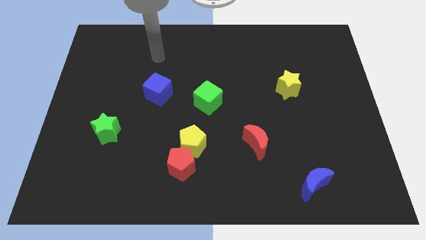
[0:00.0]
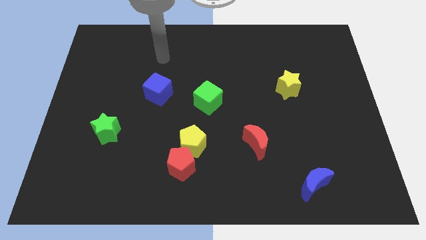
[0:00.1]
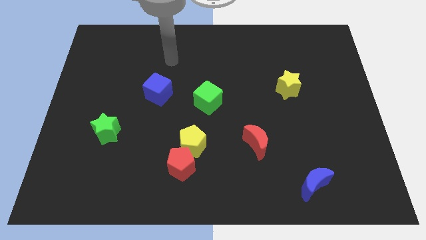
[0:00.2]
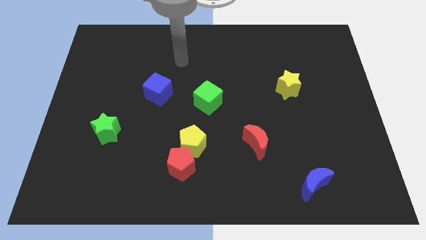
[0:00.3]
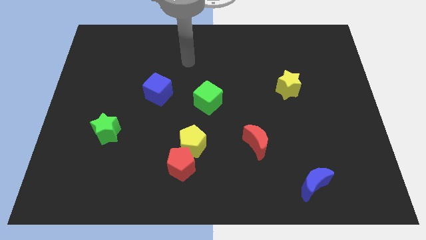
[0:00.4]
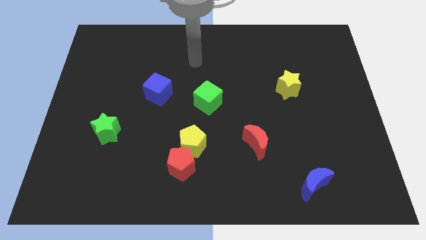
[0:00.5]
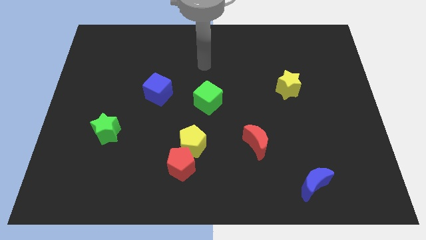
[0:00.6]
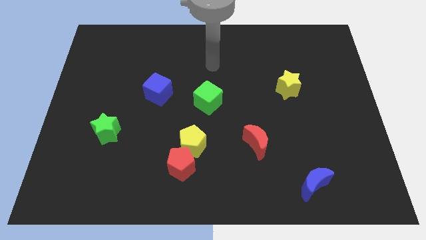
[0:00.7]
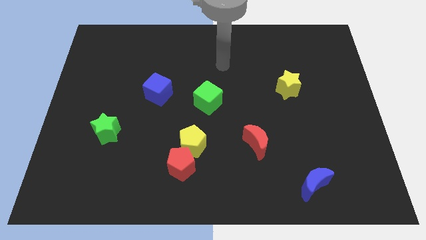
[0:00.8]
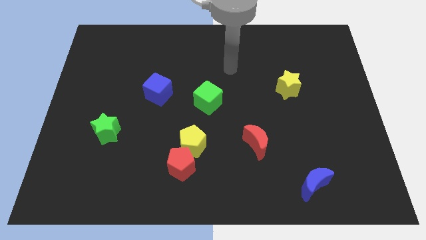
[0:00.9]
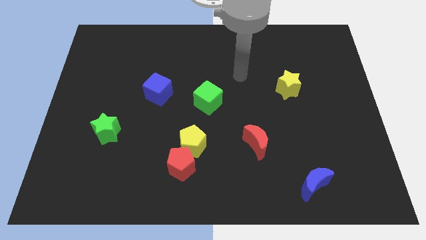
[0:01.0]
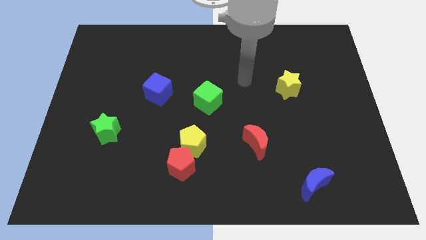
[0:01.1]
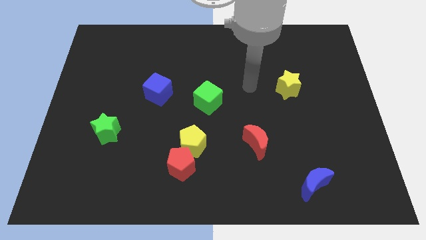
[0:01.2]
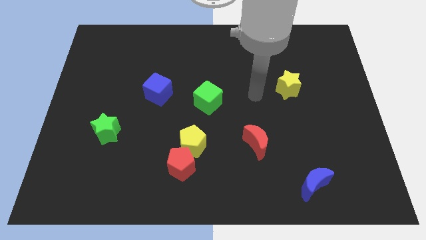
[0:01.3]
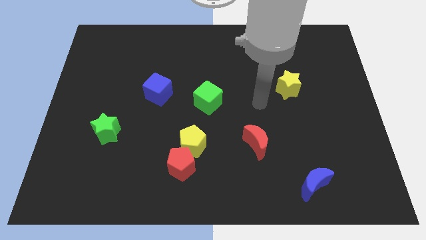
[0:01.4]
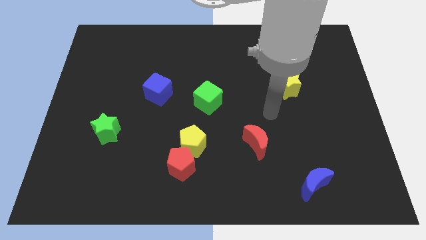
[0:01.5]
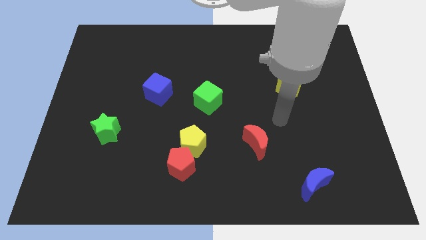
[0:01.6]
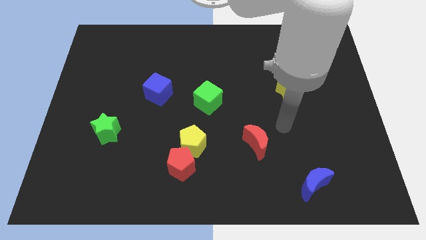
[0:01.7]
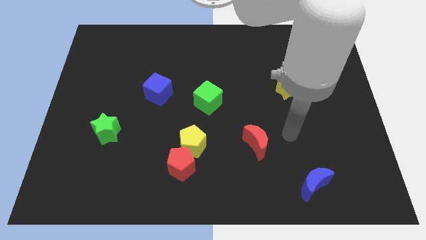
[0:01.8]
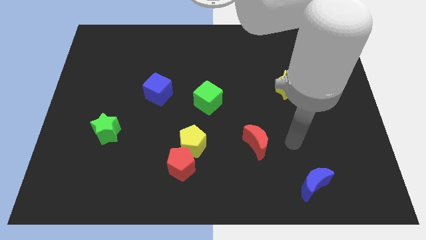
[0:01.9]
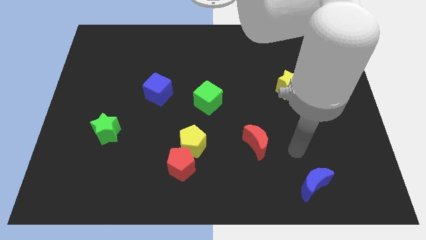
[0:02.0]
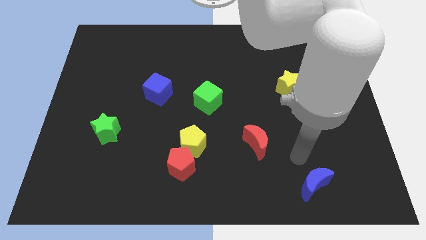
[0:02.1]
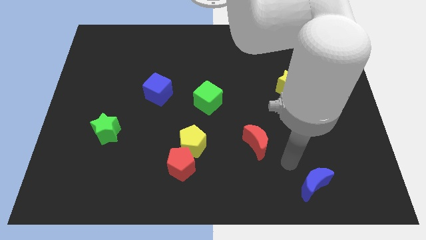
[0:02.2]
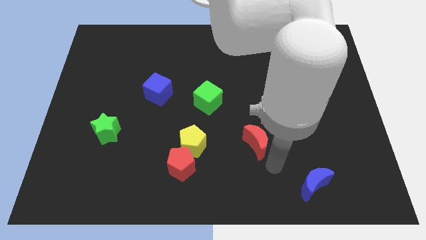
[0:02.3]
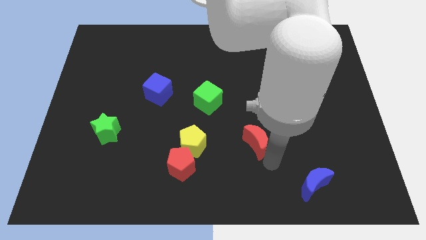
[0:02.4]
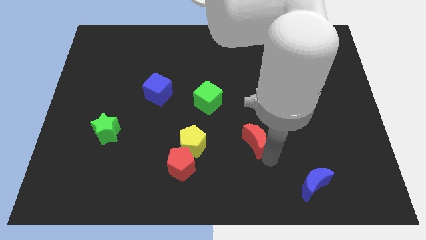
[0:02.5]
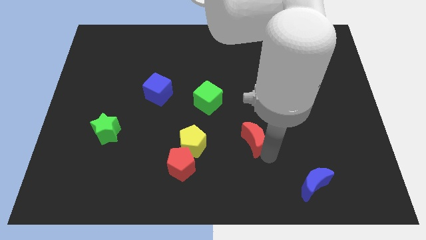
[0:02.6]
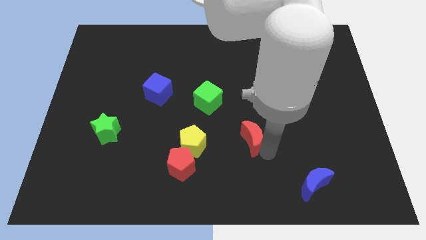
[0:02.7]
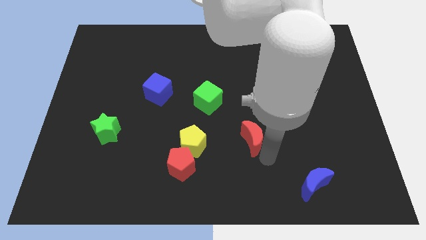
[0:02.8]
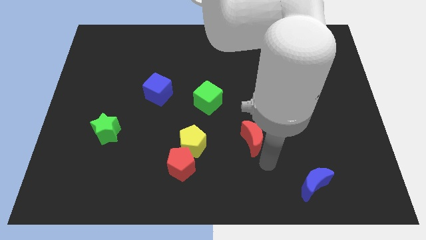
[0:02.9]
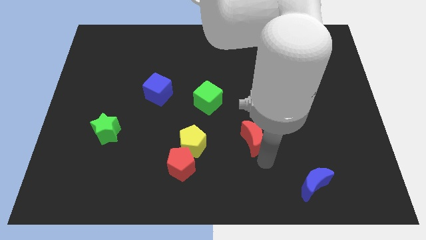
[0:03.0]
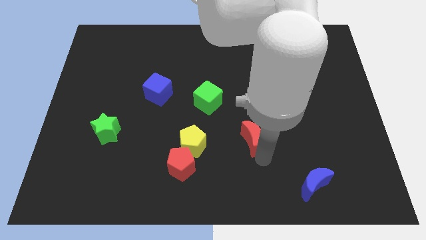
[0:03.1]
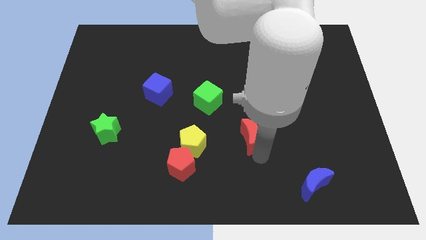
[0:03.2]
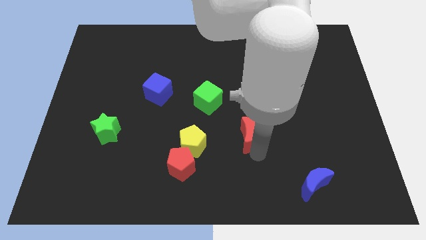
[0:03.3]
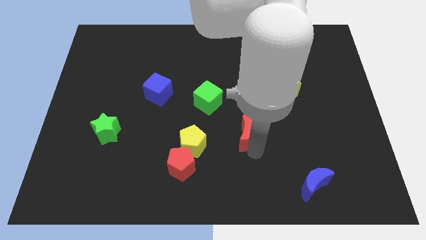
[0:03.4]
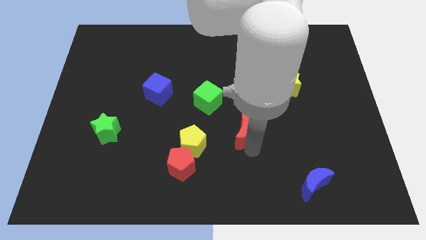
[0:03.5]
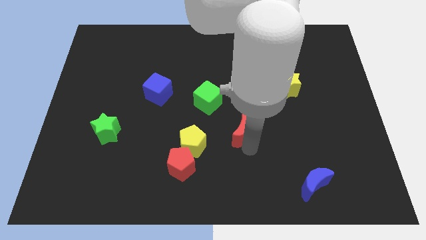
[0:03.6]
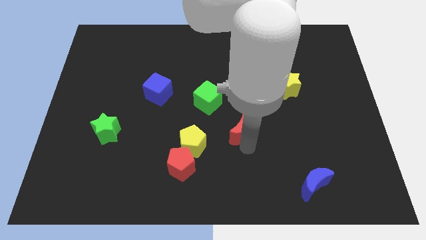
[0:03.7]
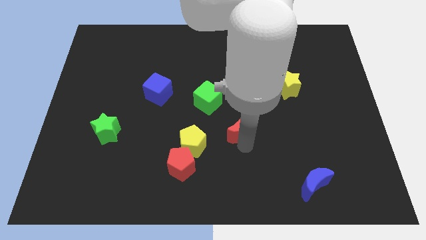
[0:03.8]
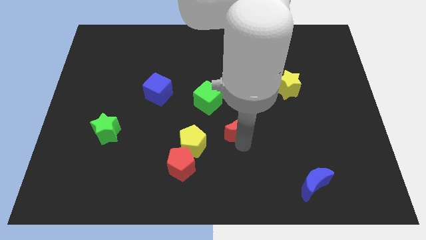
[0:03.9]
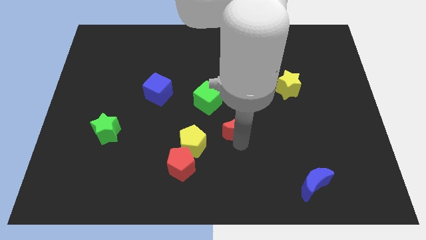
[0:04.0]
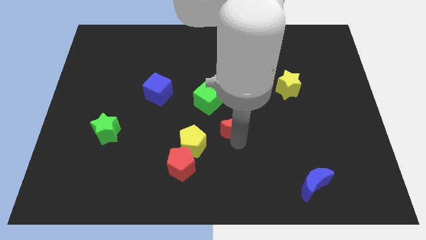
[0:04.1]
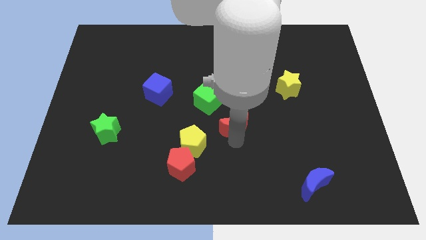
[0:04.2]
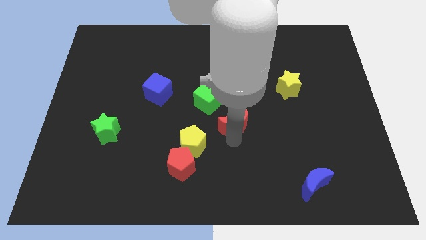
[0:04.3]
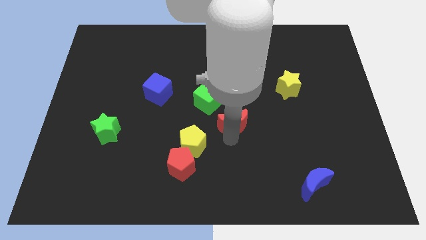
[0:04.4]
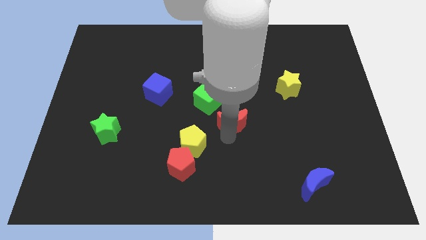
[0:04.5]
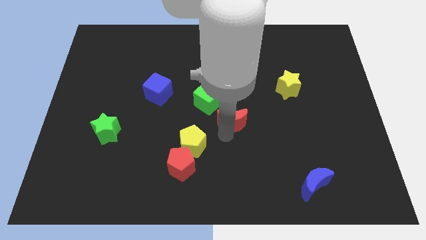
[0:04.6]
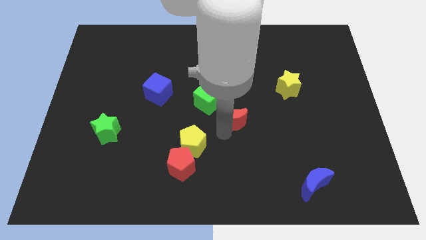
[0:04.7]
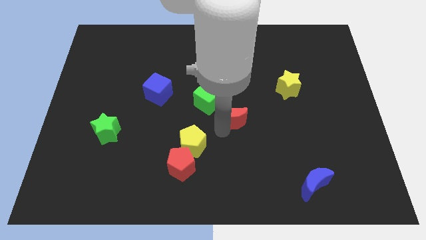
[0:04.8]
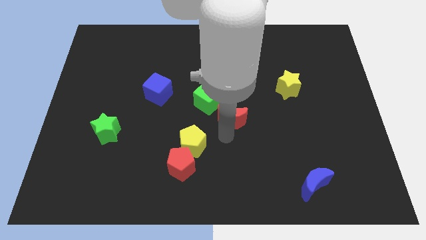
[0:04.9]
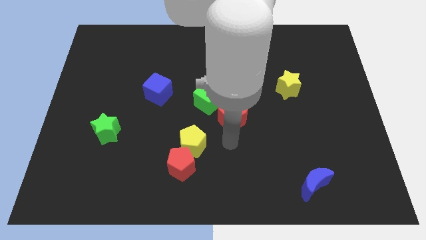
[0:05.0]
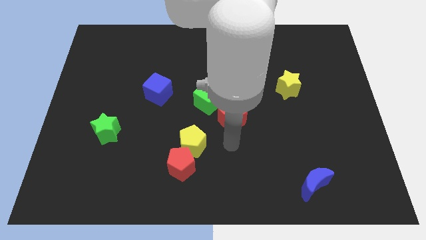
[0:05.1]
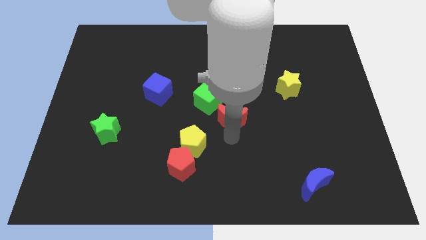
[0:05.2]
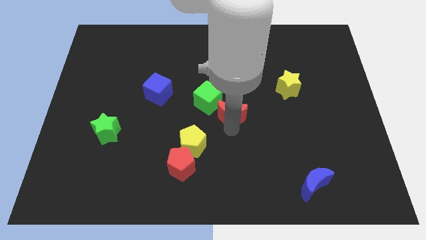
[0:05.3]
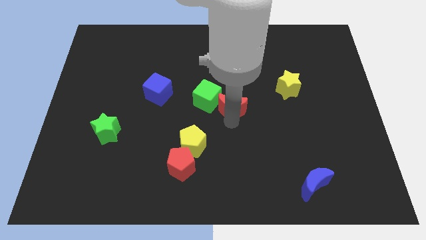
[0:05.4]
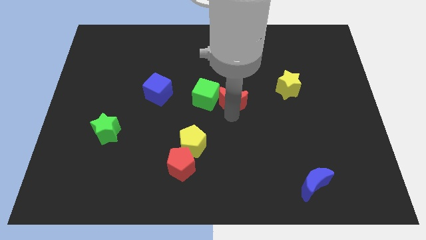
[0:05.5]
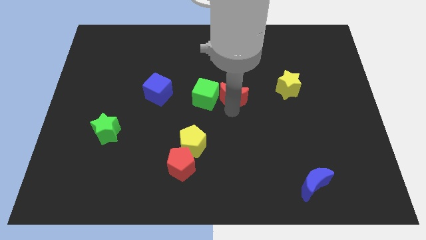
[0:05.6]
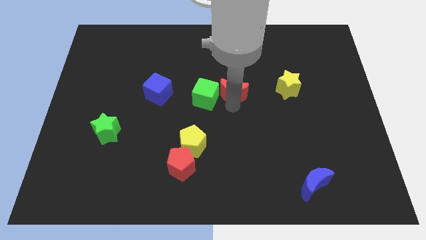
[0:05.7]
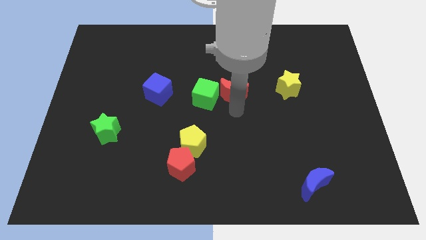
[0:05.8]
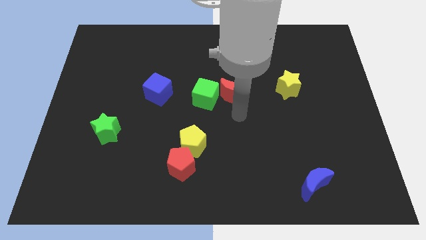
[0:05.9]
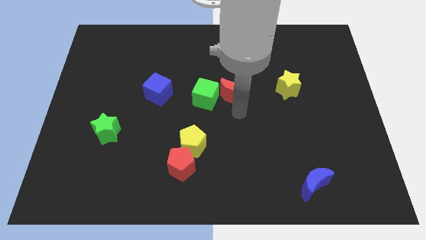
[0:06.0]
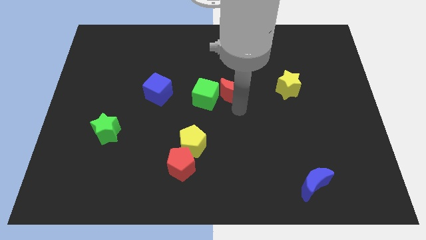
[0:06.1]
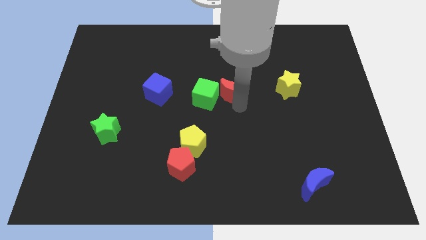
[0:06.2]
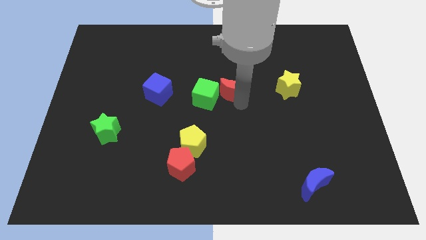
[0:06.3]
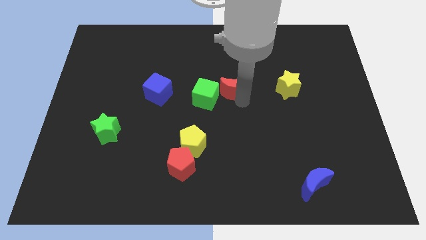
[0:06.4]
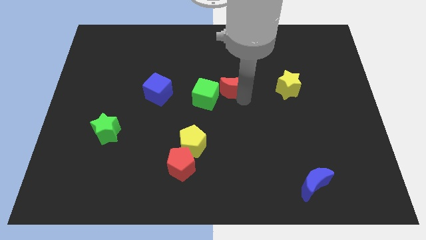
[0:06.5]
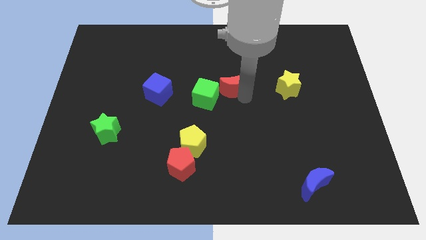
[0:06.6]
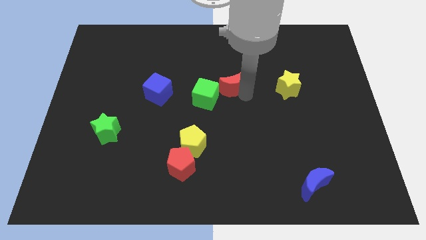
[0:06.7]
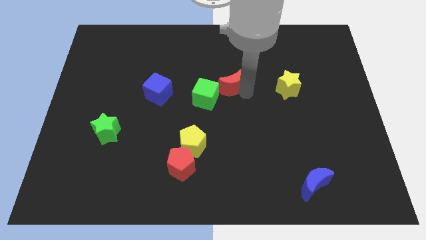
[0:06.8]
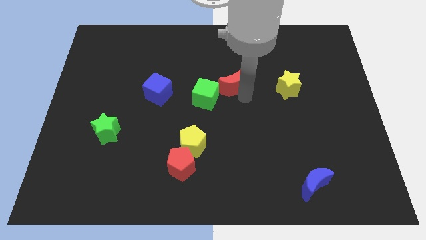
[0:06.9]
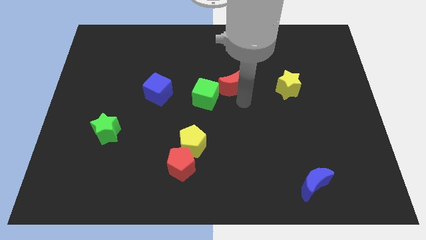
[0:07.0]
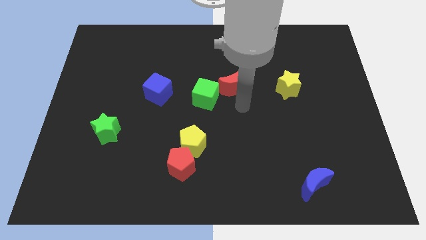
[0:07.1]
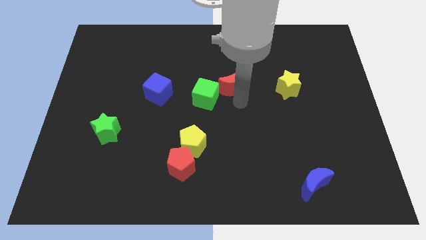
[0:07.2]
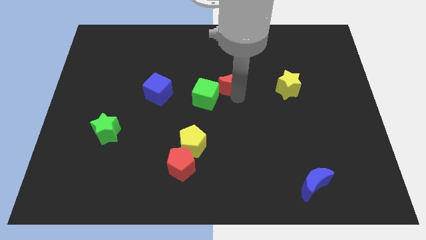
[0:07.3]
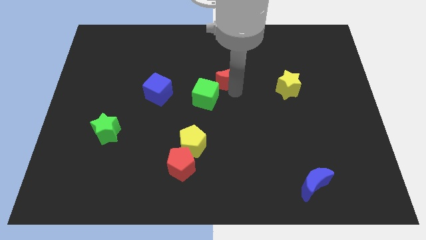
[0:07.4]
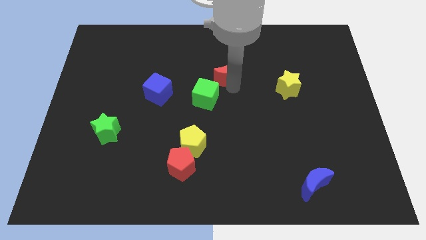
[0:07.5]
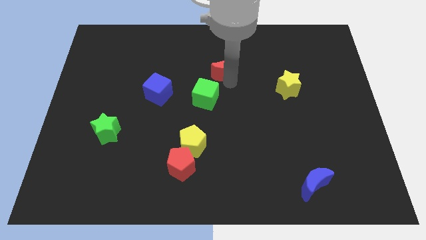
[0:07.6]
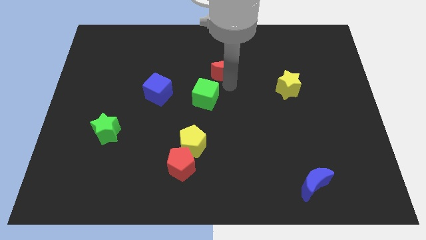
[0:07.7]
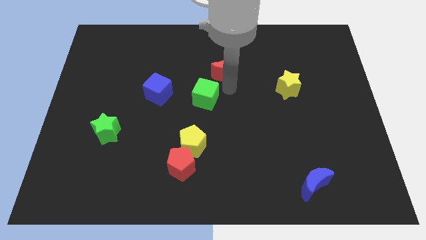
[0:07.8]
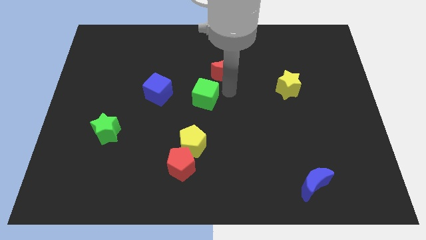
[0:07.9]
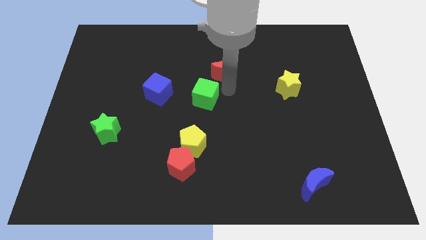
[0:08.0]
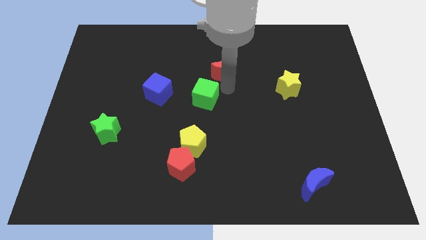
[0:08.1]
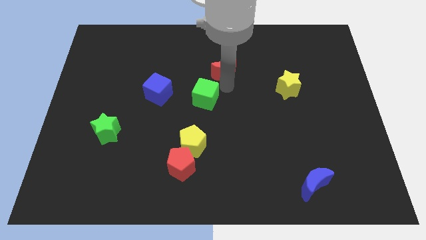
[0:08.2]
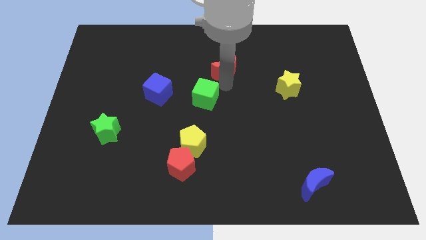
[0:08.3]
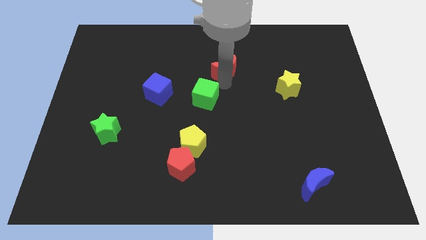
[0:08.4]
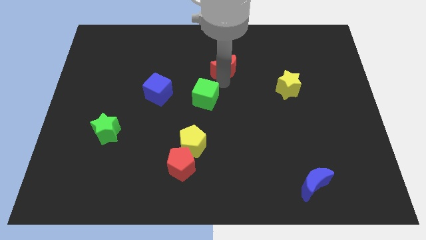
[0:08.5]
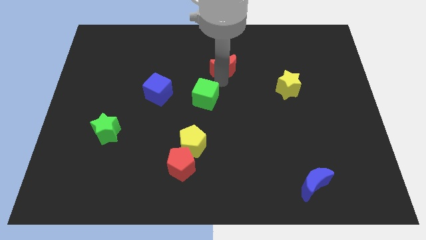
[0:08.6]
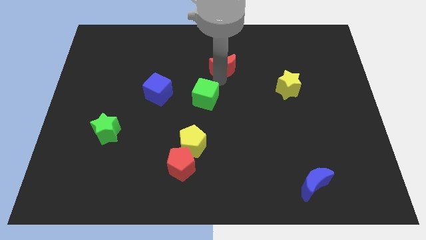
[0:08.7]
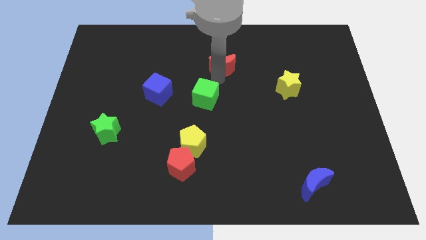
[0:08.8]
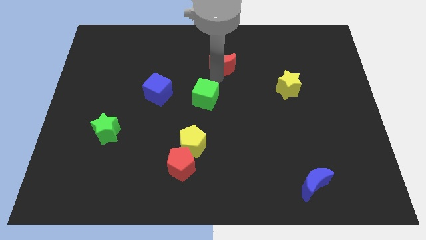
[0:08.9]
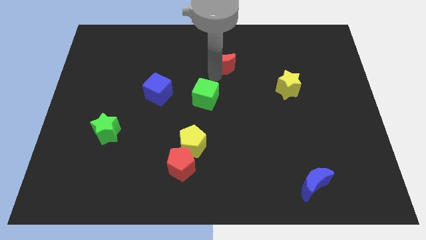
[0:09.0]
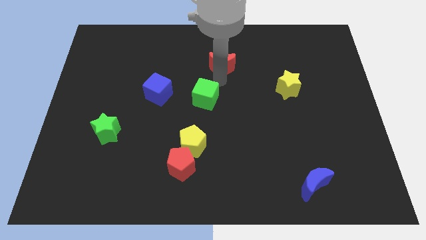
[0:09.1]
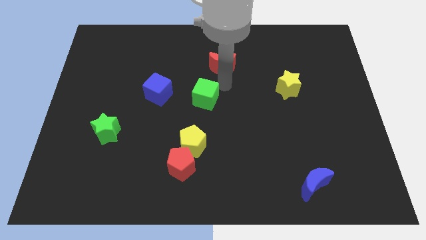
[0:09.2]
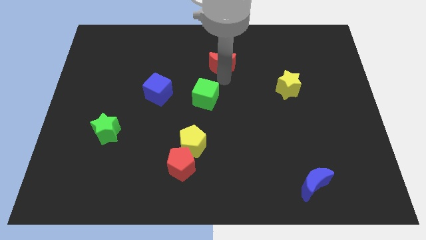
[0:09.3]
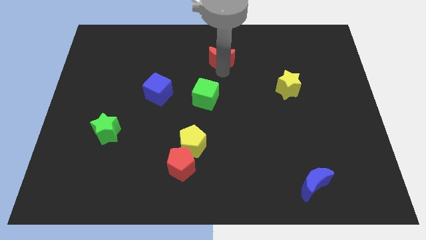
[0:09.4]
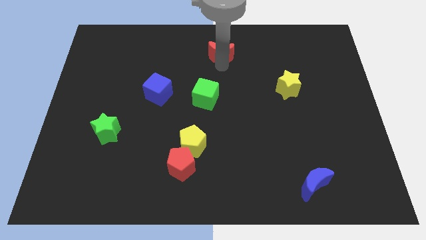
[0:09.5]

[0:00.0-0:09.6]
push the red moon to the top
